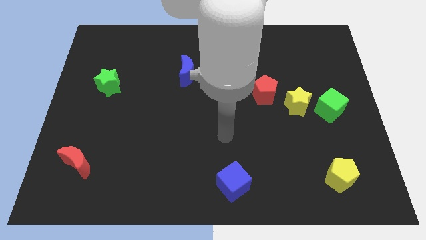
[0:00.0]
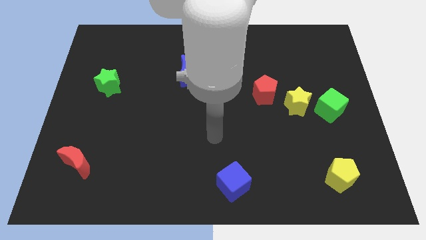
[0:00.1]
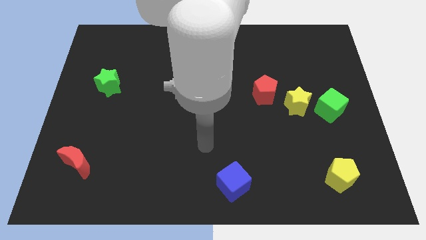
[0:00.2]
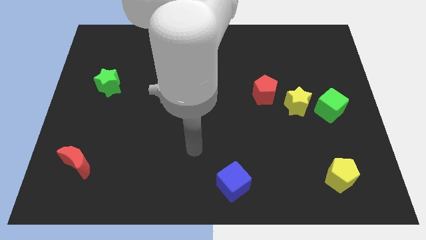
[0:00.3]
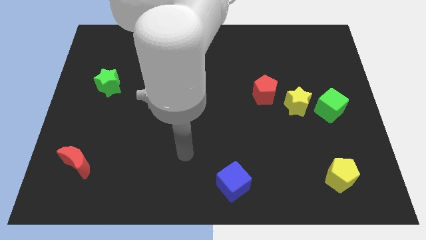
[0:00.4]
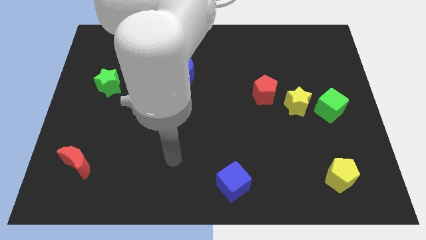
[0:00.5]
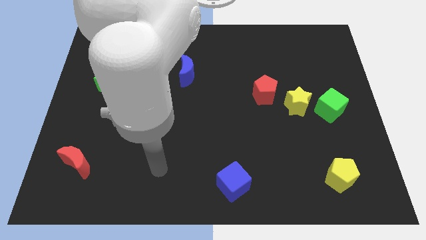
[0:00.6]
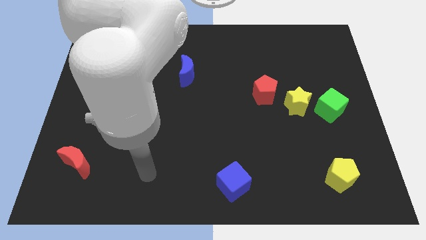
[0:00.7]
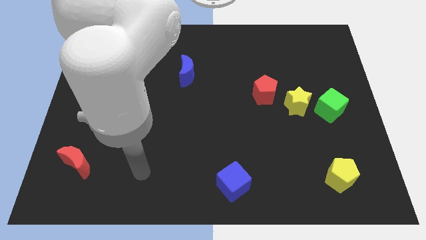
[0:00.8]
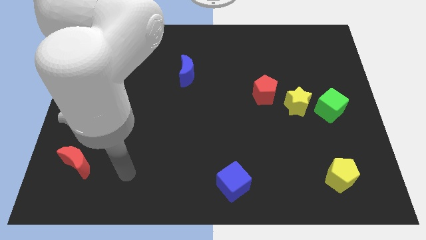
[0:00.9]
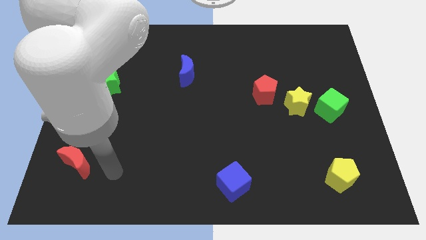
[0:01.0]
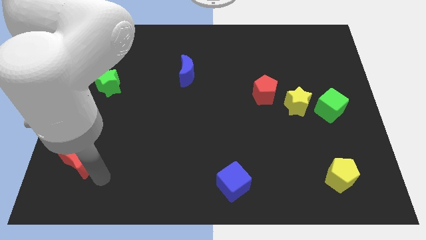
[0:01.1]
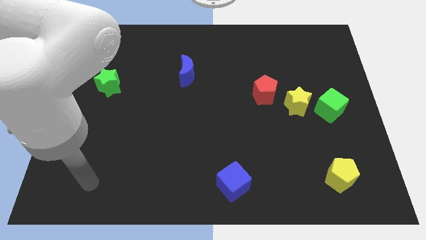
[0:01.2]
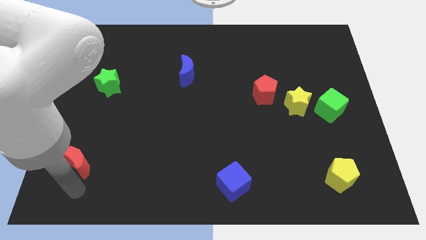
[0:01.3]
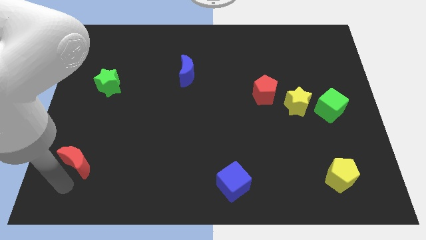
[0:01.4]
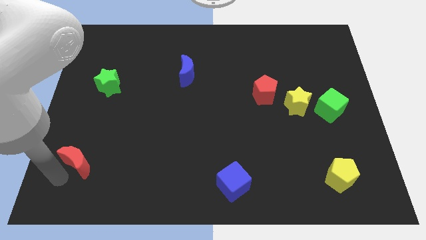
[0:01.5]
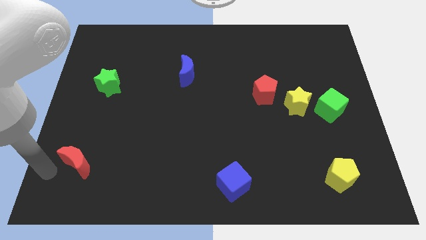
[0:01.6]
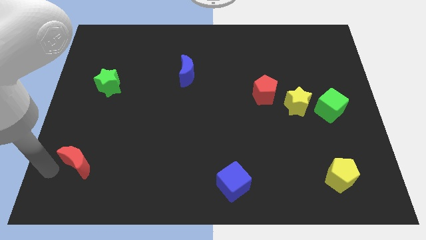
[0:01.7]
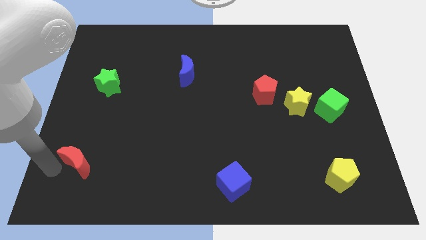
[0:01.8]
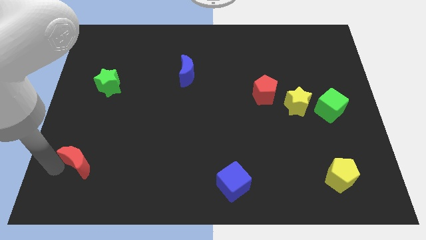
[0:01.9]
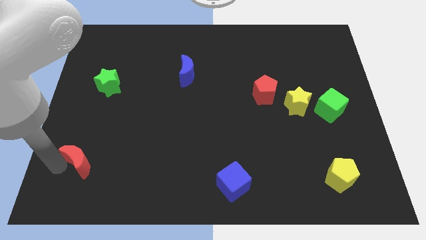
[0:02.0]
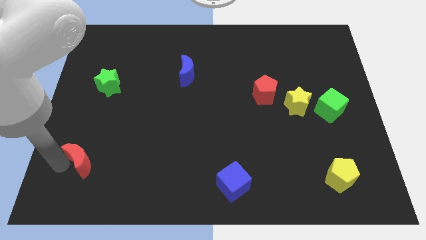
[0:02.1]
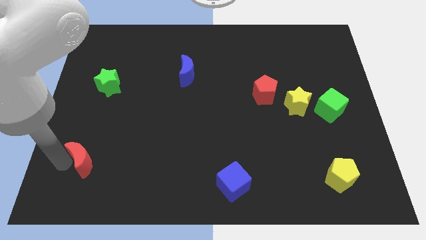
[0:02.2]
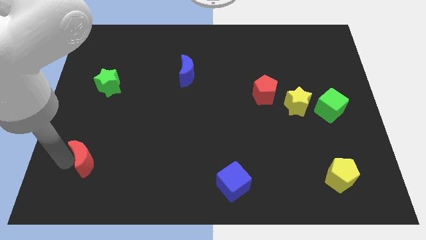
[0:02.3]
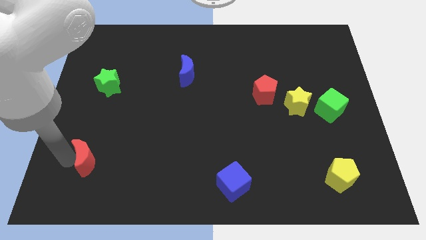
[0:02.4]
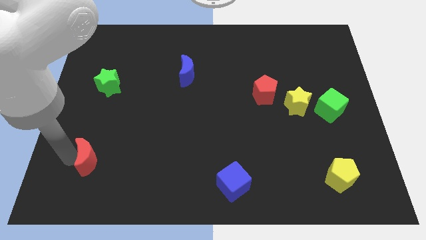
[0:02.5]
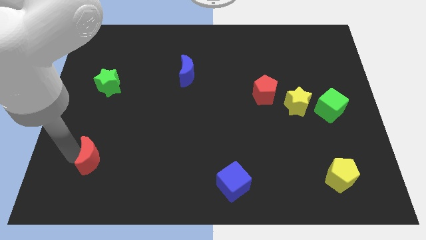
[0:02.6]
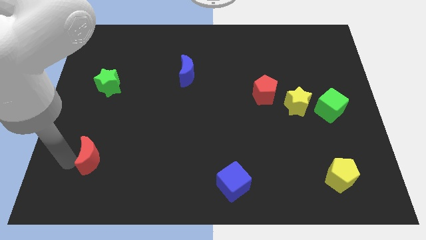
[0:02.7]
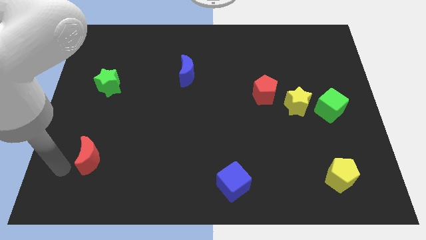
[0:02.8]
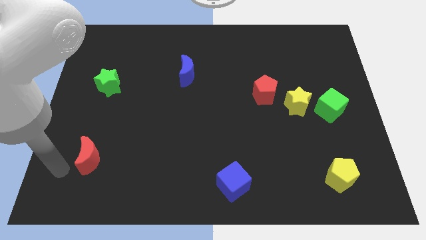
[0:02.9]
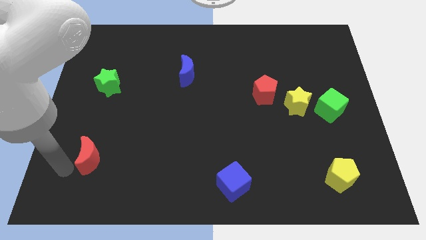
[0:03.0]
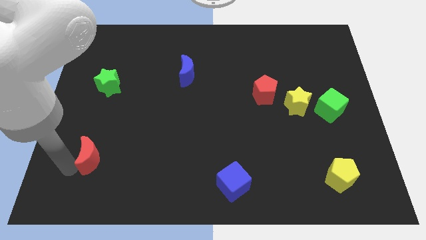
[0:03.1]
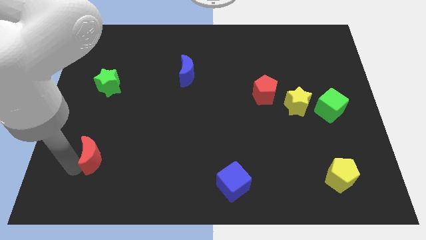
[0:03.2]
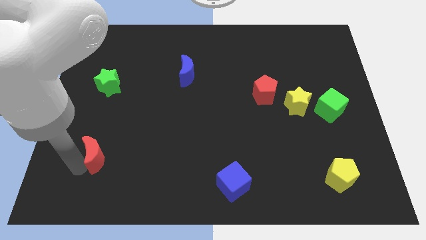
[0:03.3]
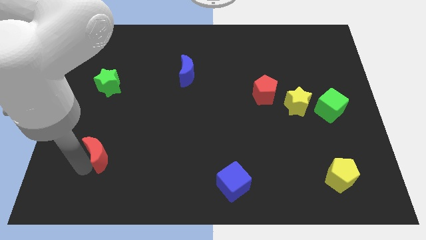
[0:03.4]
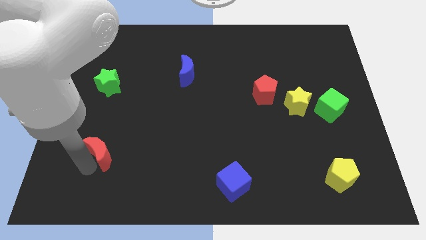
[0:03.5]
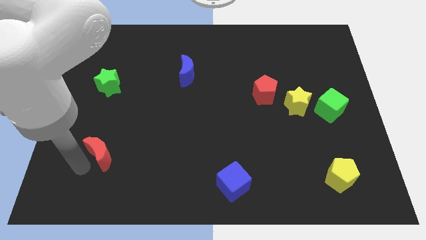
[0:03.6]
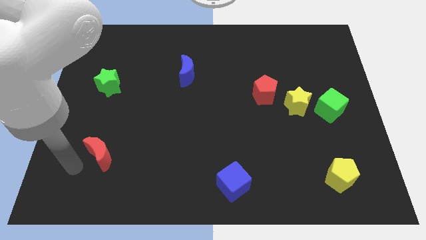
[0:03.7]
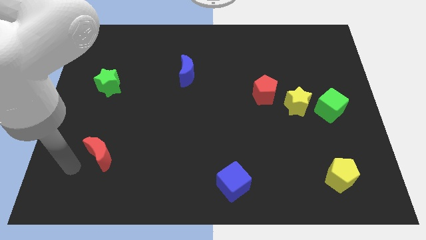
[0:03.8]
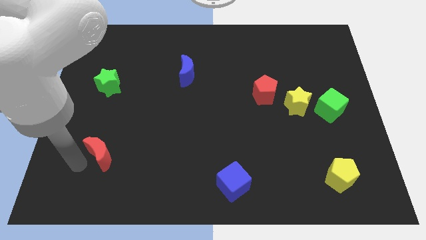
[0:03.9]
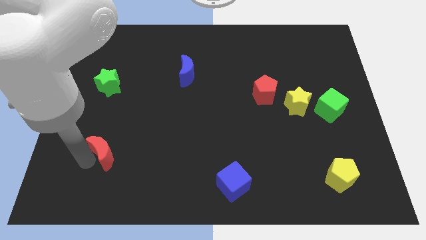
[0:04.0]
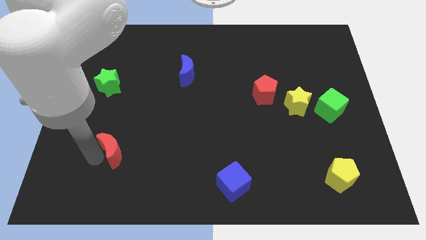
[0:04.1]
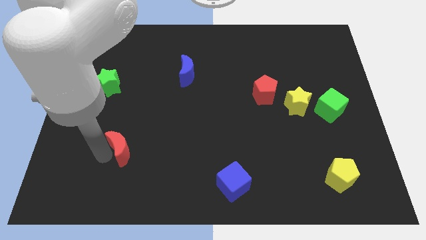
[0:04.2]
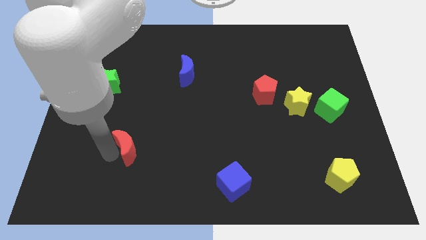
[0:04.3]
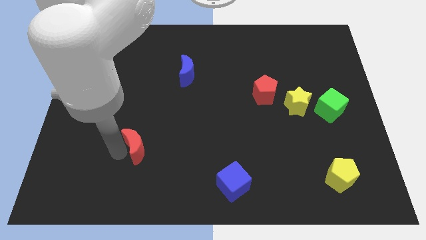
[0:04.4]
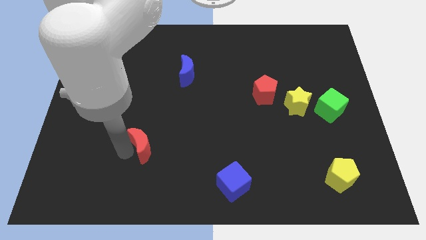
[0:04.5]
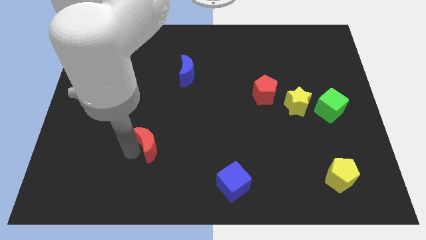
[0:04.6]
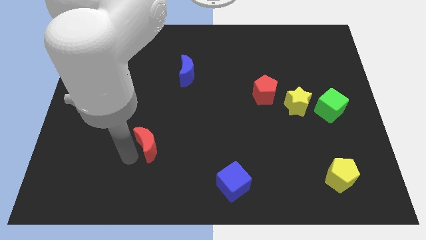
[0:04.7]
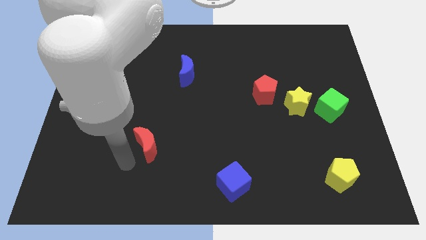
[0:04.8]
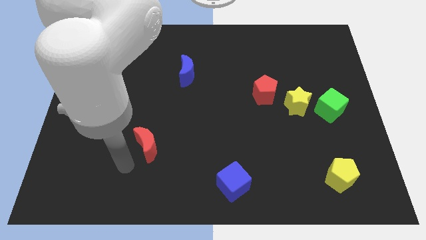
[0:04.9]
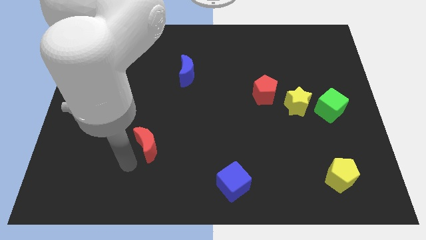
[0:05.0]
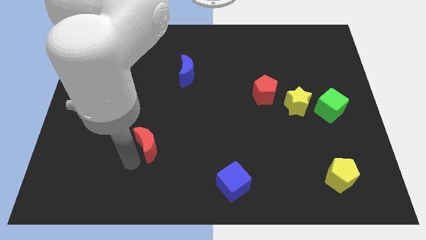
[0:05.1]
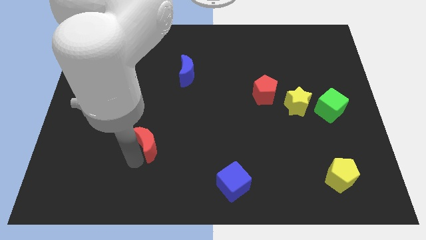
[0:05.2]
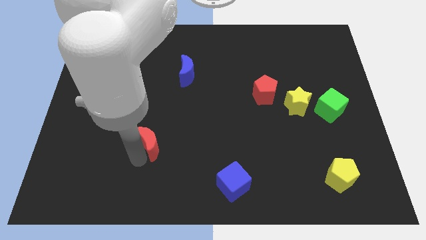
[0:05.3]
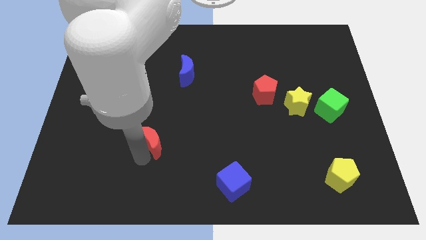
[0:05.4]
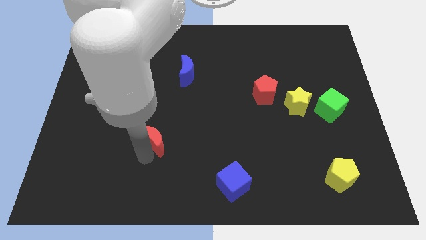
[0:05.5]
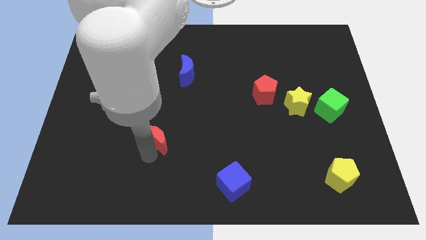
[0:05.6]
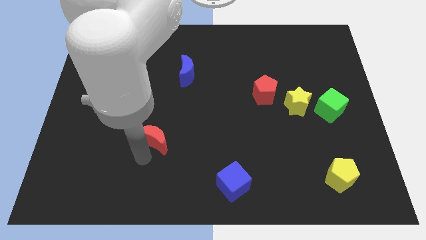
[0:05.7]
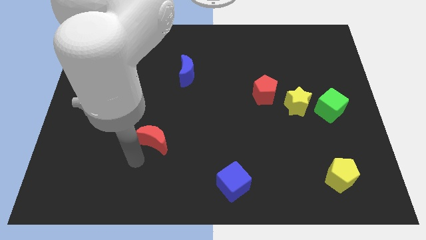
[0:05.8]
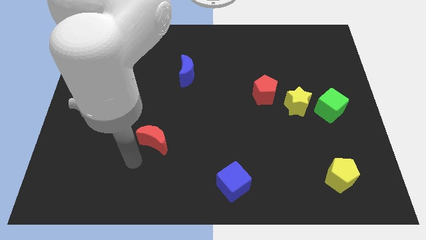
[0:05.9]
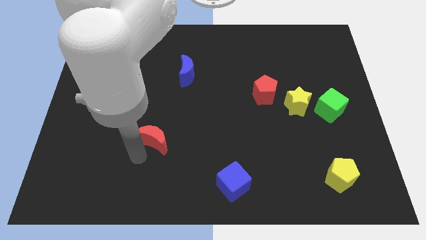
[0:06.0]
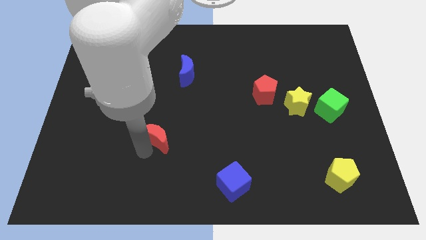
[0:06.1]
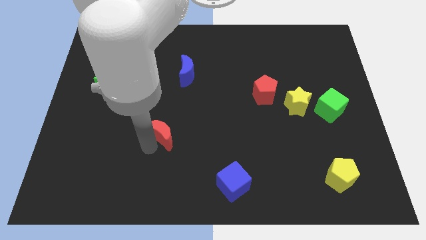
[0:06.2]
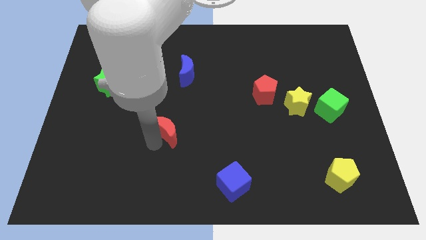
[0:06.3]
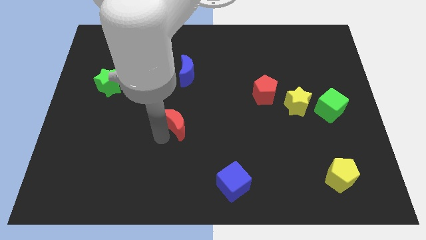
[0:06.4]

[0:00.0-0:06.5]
move the red moon to the center

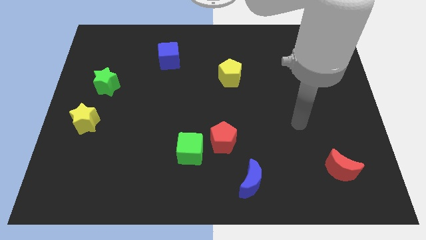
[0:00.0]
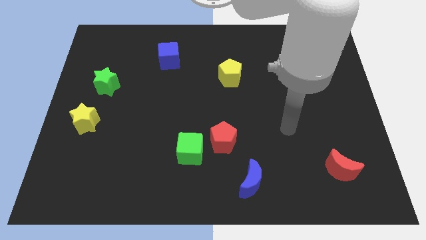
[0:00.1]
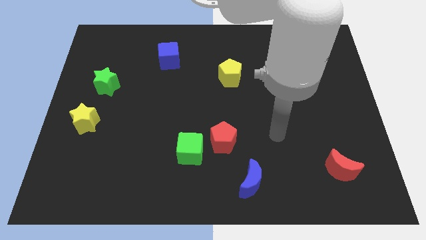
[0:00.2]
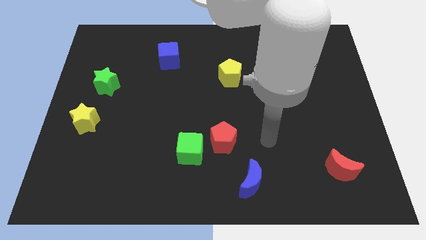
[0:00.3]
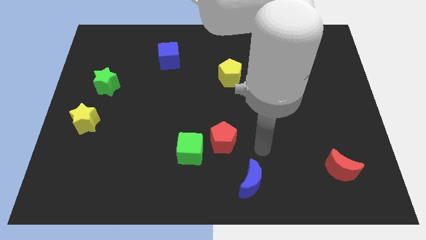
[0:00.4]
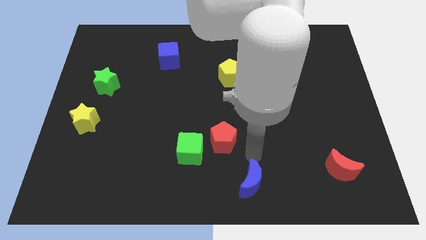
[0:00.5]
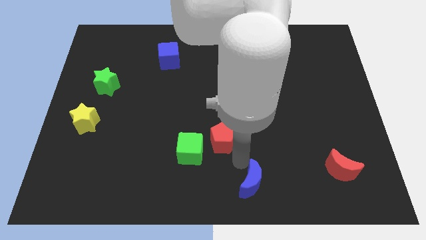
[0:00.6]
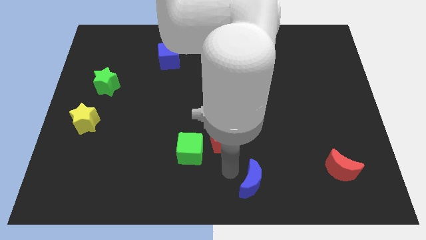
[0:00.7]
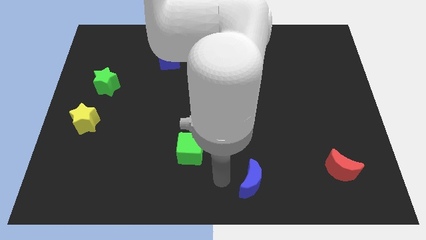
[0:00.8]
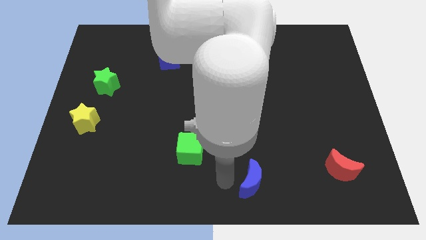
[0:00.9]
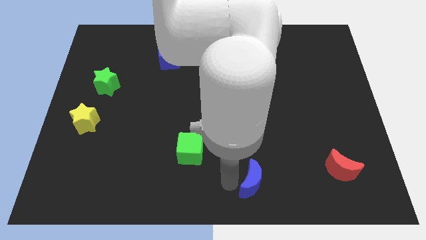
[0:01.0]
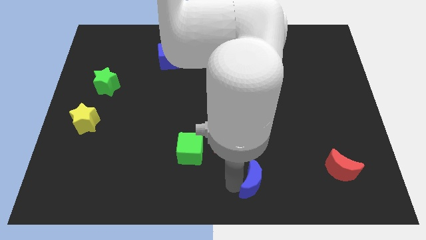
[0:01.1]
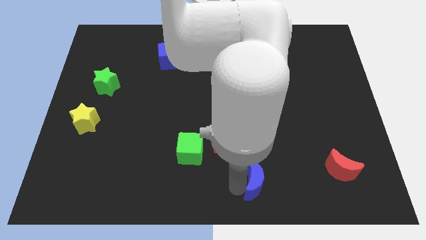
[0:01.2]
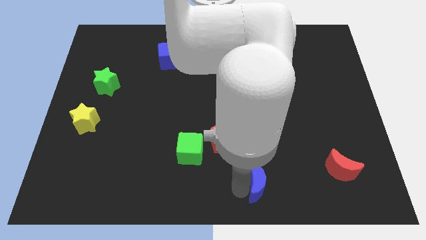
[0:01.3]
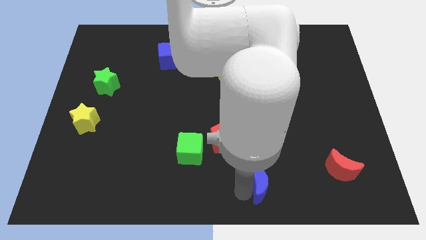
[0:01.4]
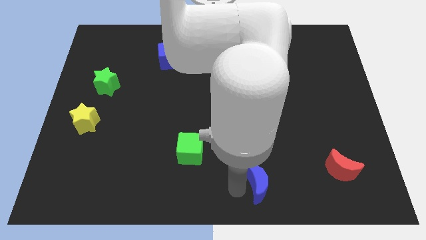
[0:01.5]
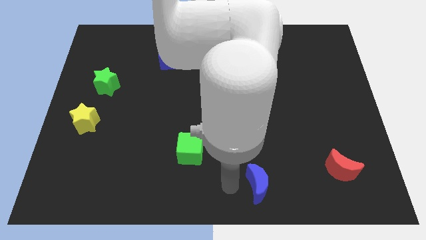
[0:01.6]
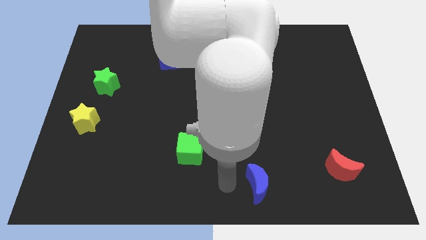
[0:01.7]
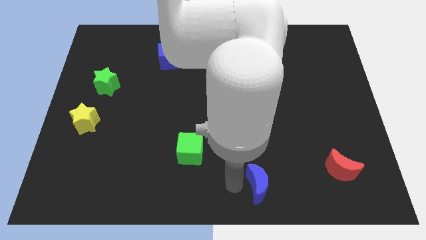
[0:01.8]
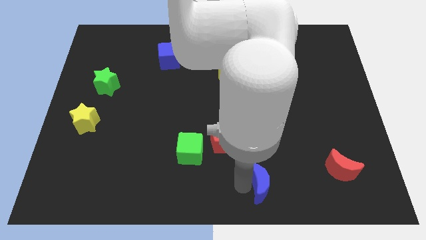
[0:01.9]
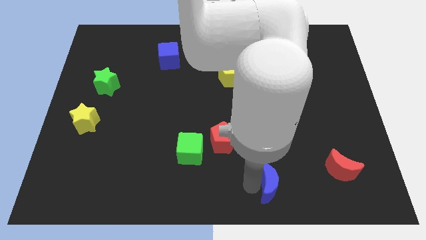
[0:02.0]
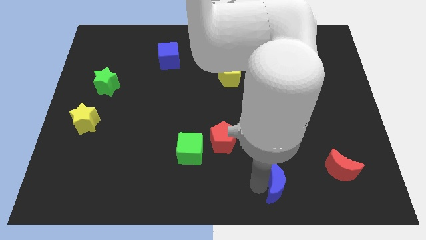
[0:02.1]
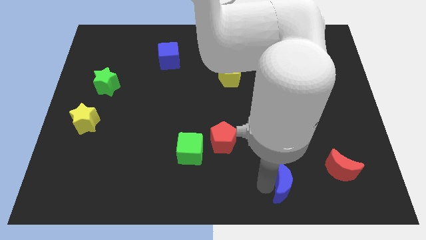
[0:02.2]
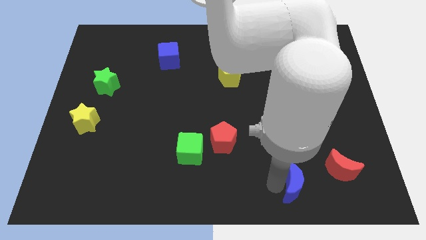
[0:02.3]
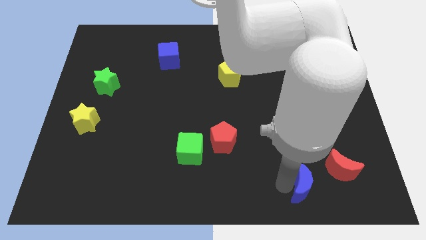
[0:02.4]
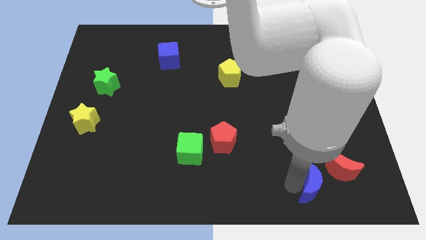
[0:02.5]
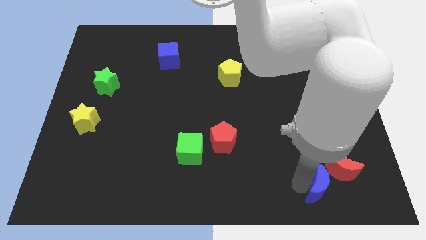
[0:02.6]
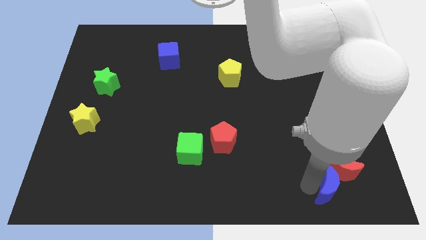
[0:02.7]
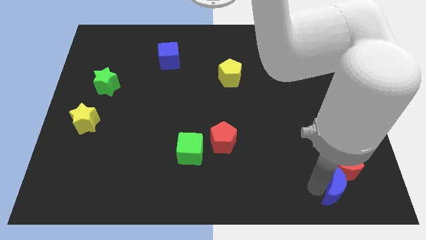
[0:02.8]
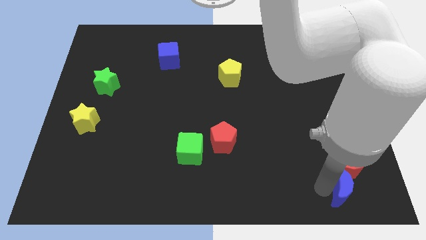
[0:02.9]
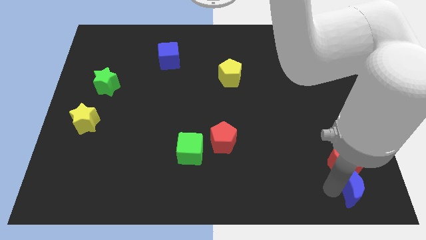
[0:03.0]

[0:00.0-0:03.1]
slide the blue moon to the bottom right
